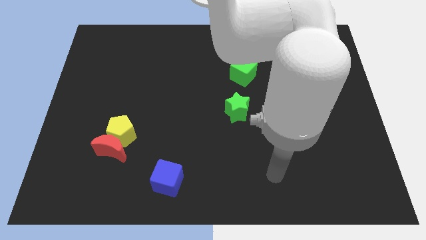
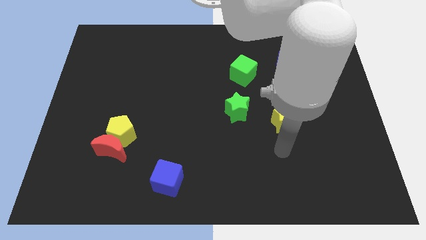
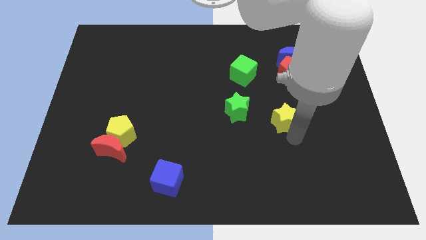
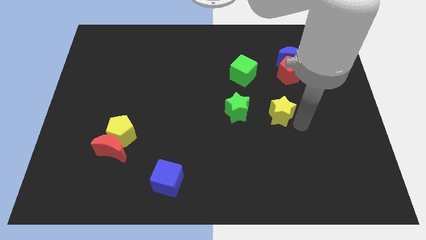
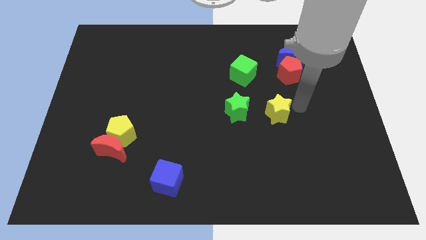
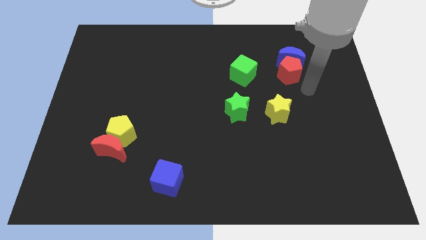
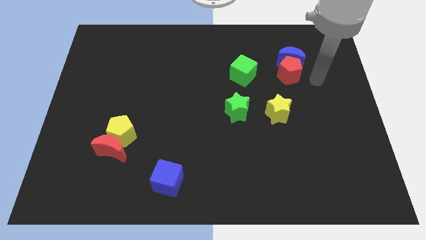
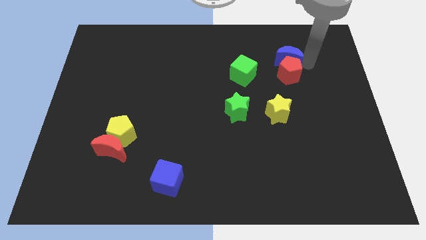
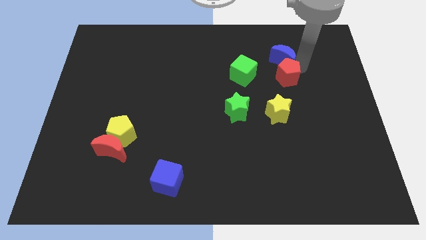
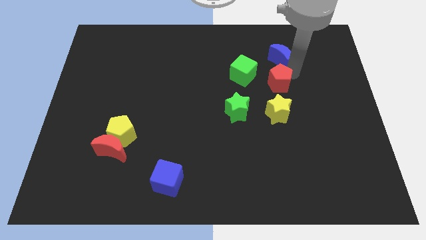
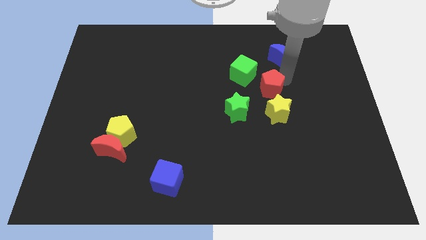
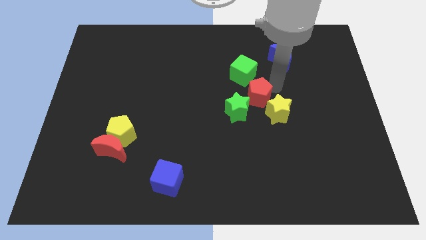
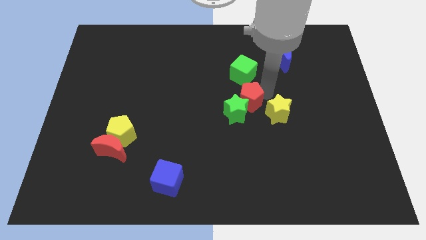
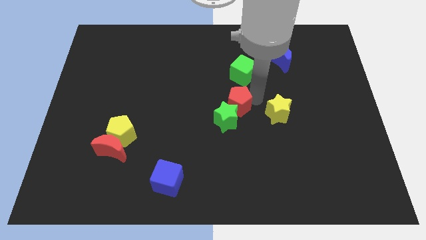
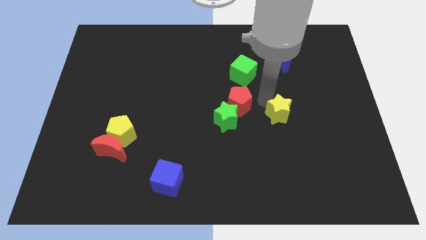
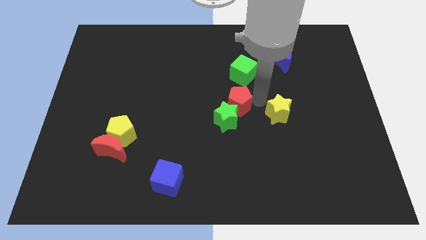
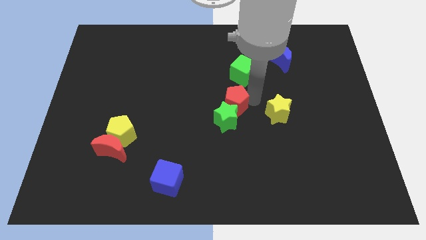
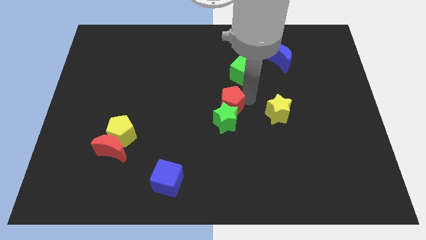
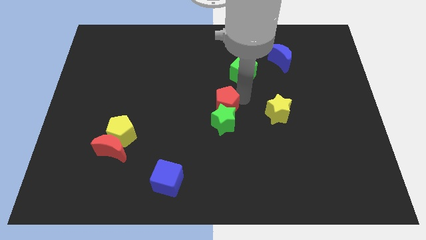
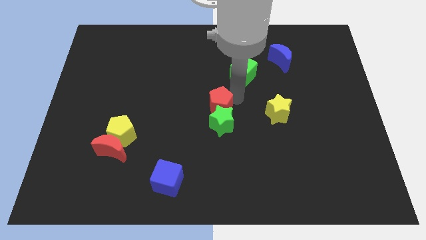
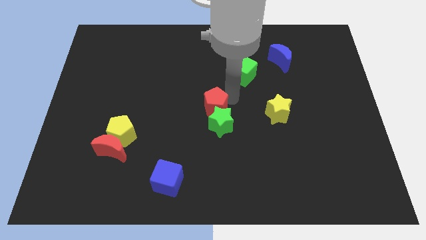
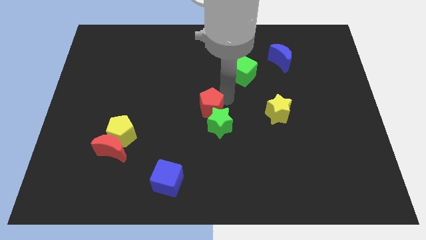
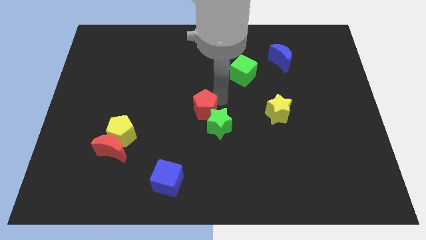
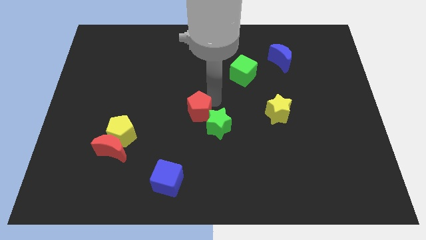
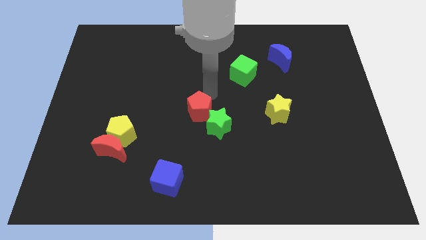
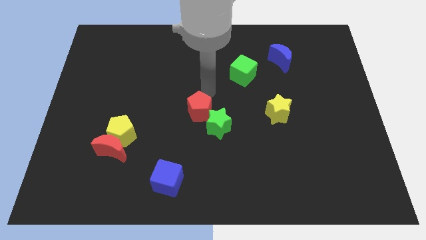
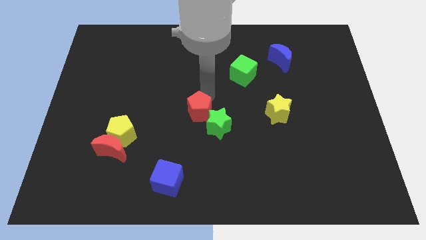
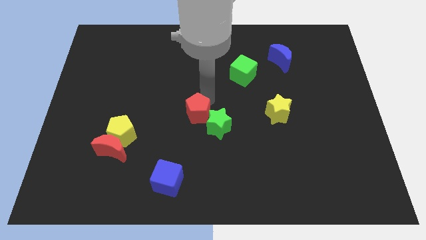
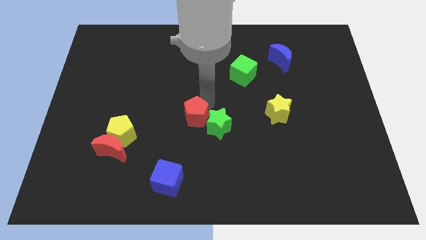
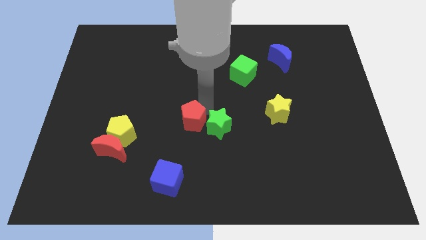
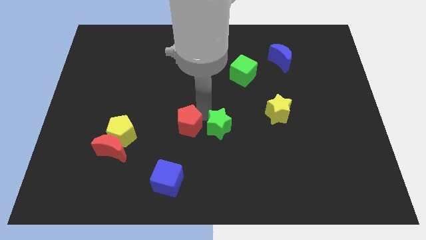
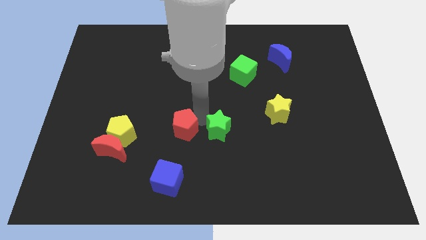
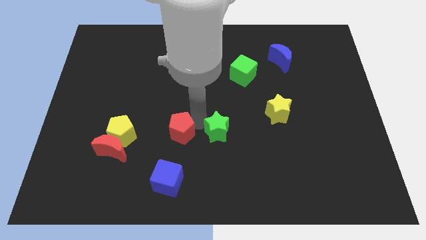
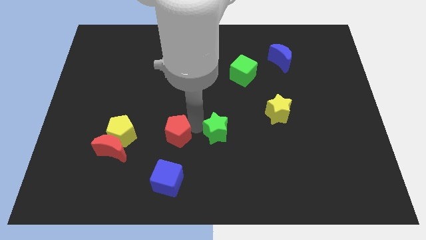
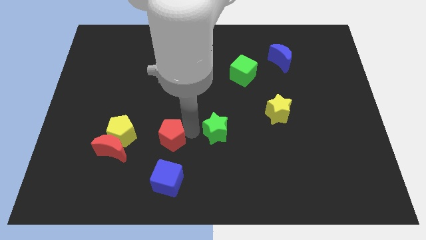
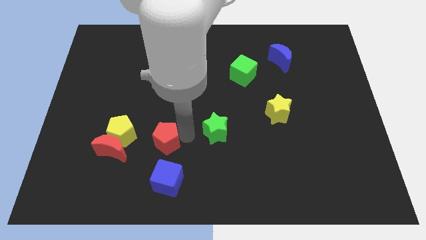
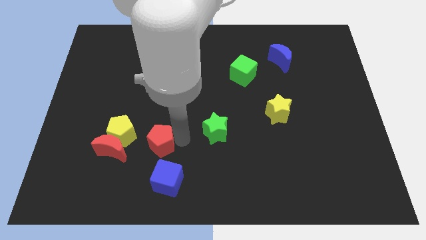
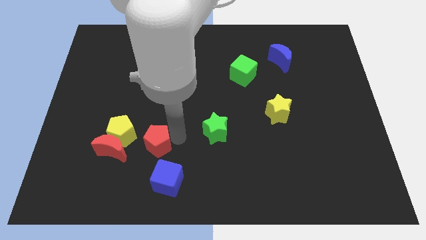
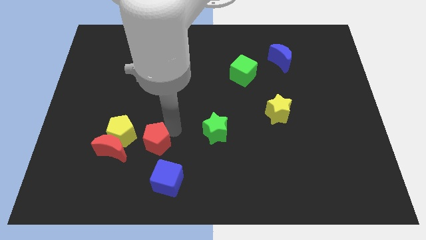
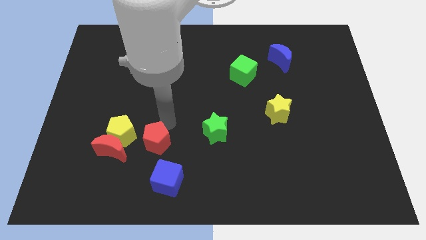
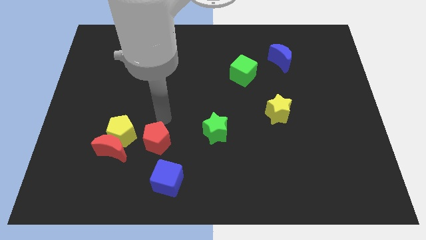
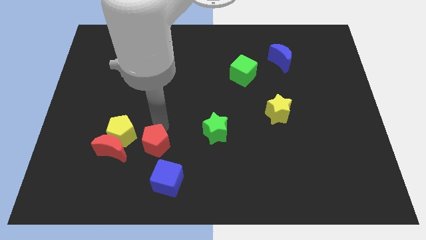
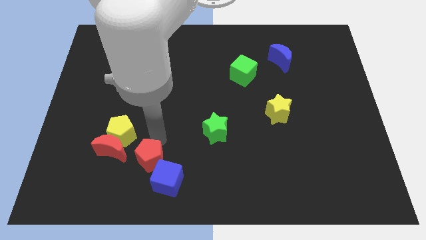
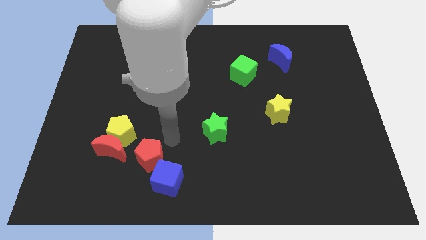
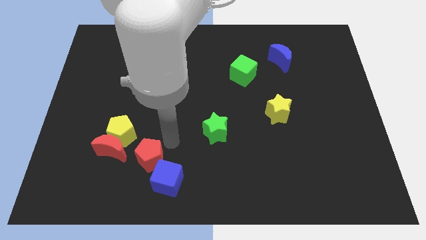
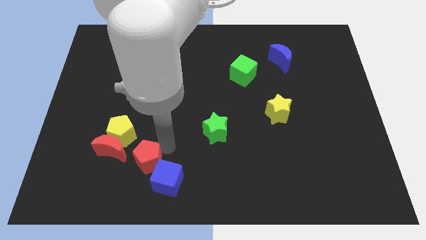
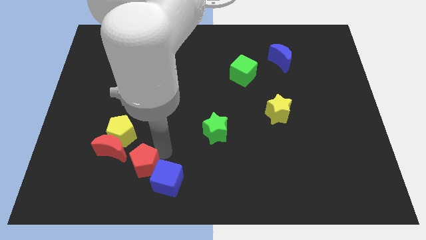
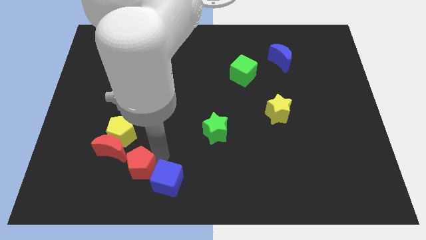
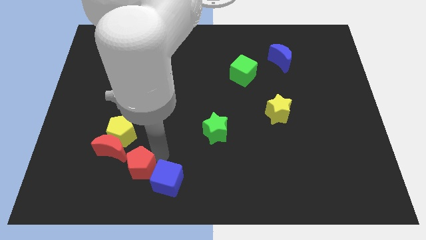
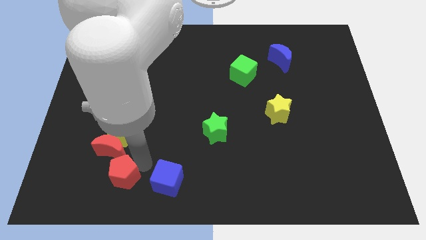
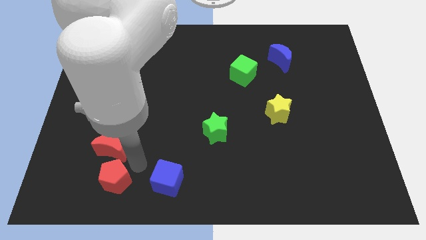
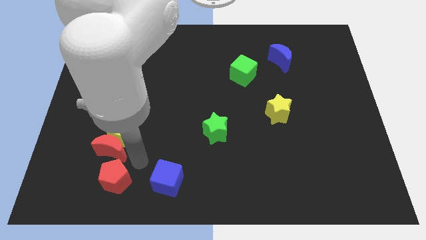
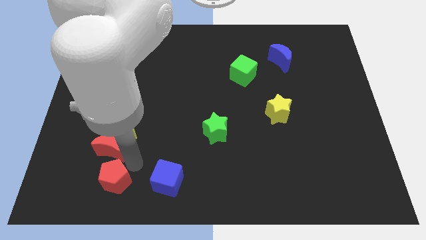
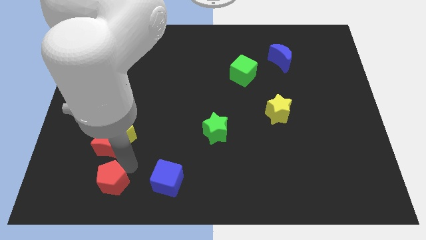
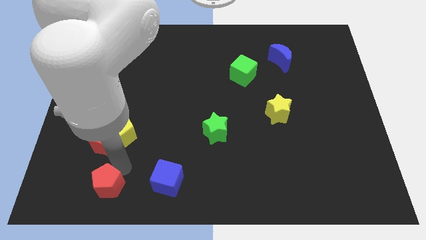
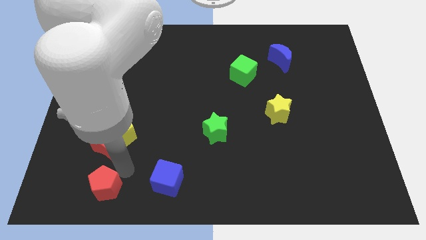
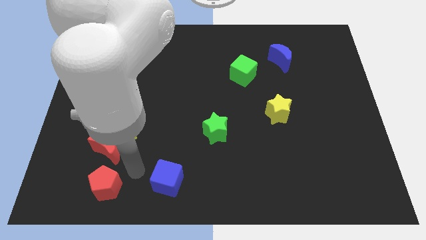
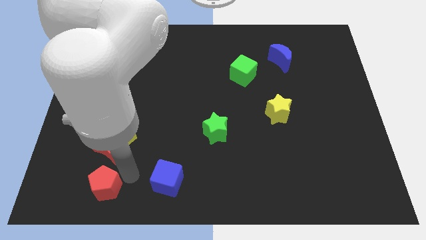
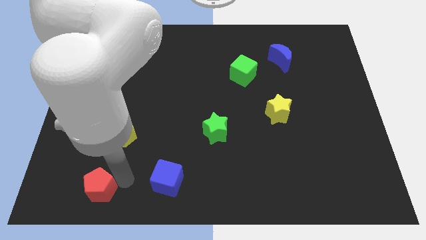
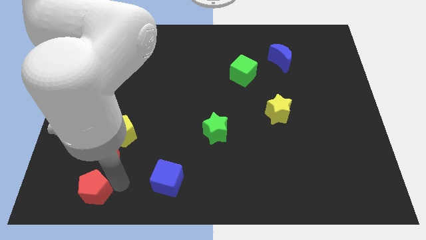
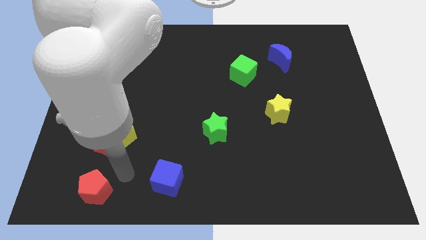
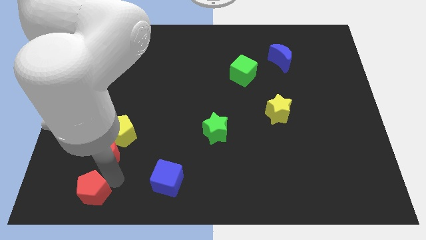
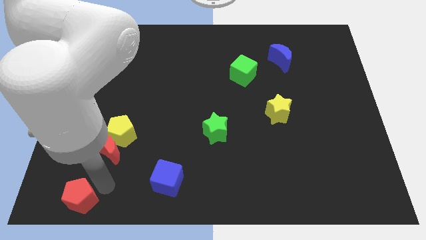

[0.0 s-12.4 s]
move the red pentagon to the bottom left of the board
